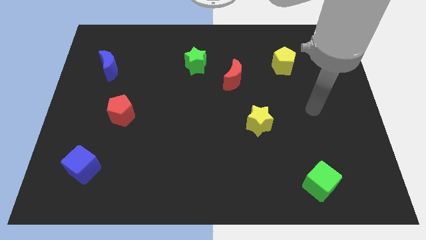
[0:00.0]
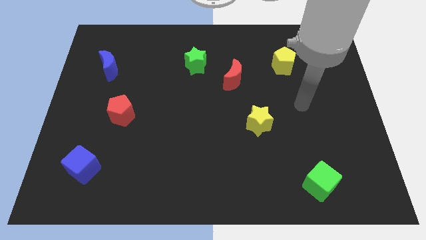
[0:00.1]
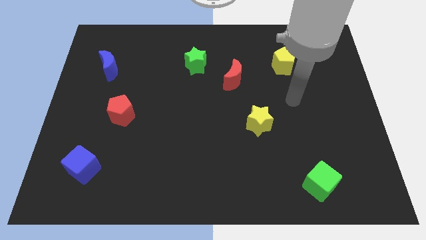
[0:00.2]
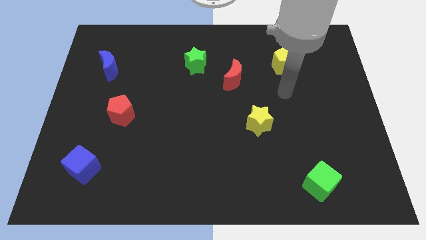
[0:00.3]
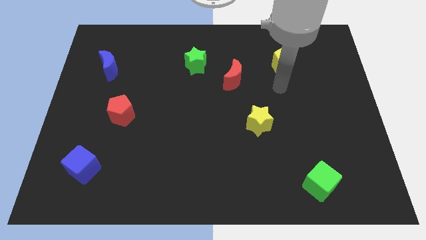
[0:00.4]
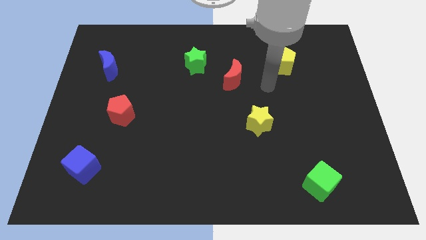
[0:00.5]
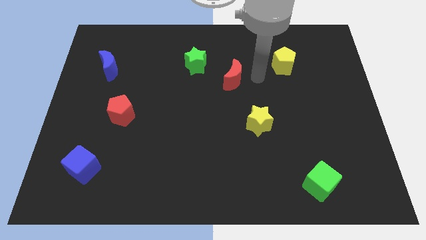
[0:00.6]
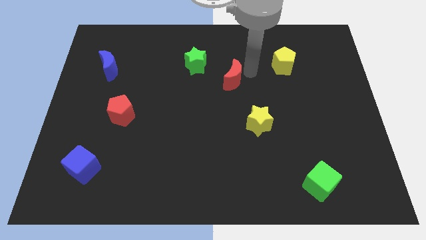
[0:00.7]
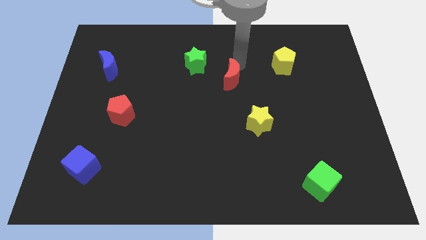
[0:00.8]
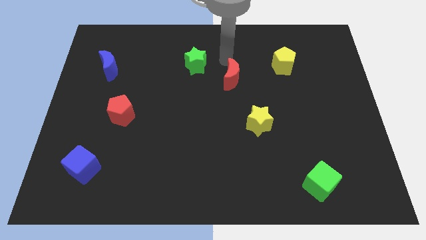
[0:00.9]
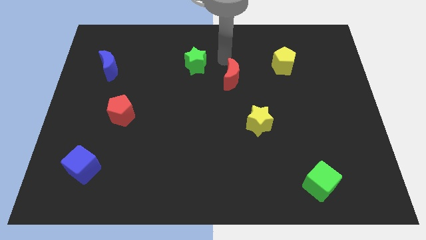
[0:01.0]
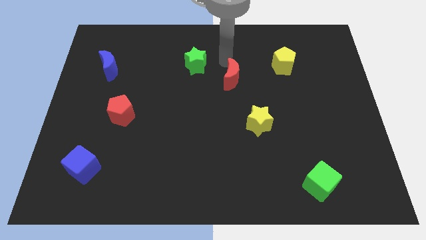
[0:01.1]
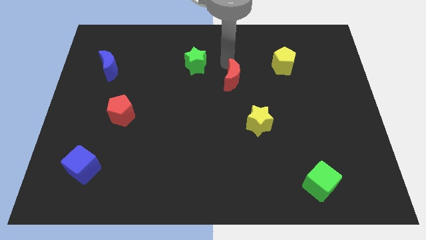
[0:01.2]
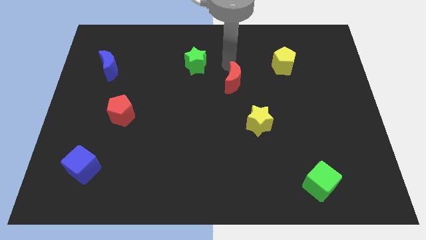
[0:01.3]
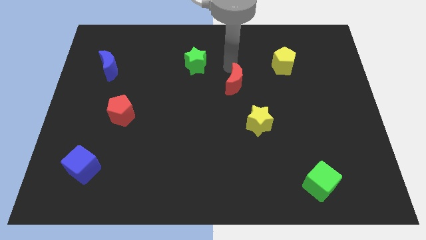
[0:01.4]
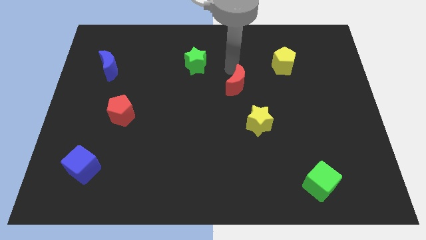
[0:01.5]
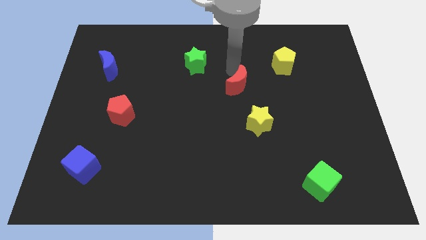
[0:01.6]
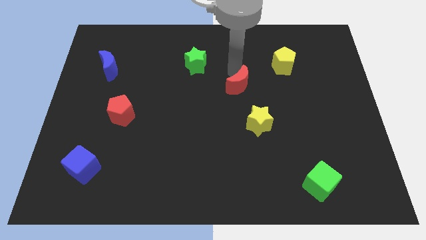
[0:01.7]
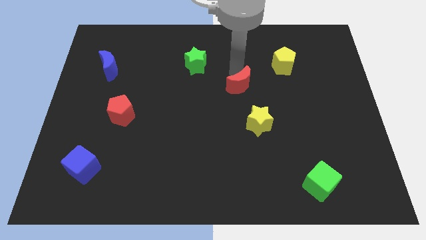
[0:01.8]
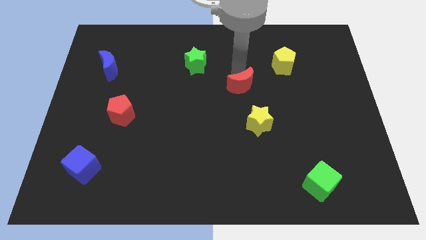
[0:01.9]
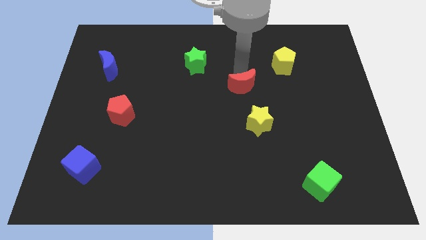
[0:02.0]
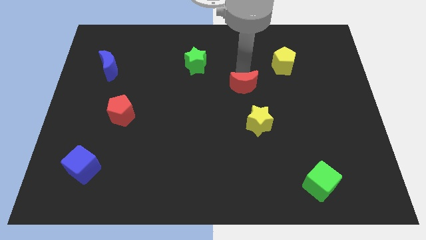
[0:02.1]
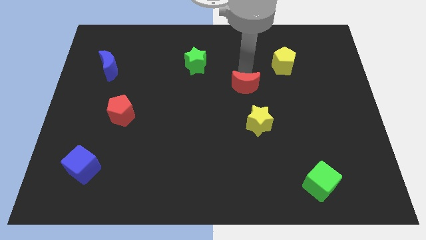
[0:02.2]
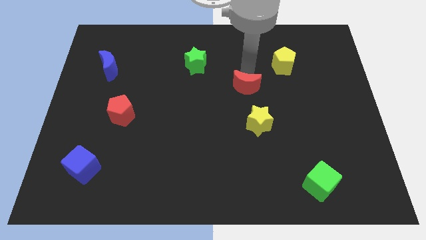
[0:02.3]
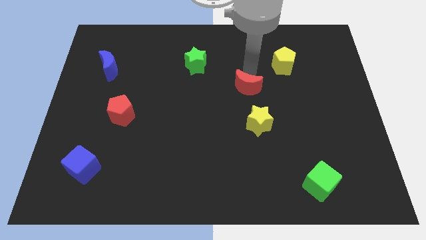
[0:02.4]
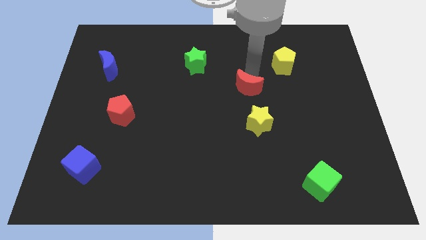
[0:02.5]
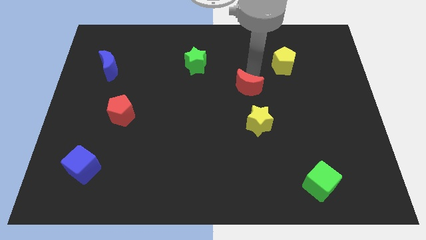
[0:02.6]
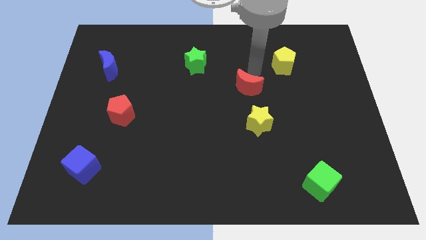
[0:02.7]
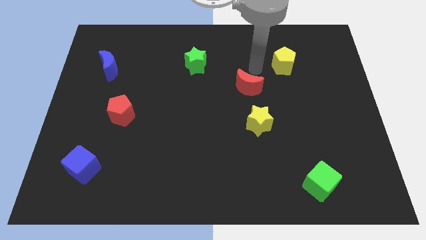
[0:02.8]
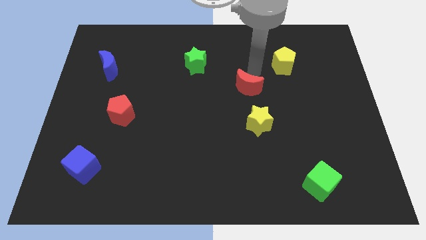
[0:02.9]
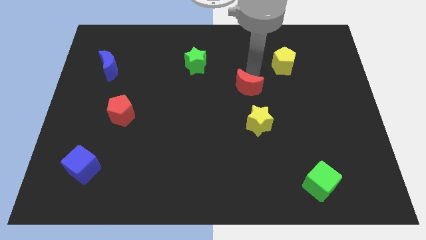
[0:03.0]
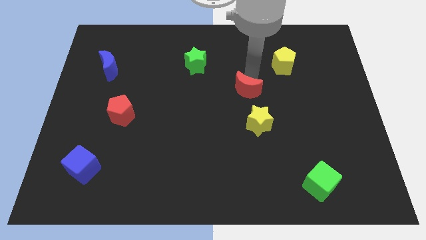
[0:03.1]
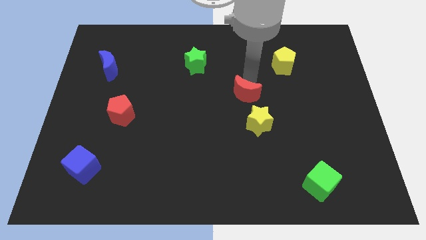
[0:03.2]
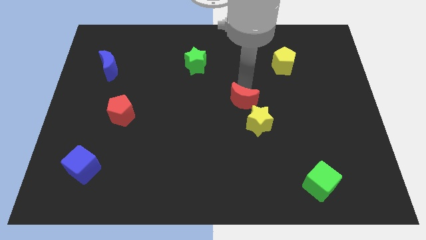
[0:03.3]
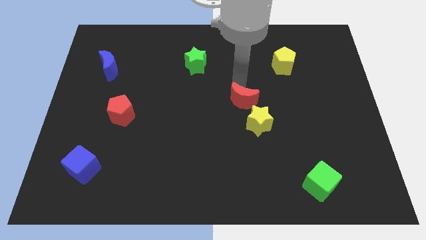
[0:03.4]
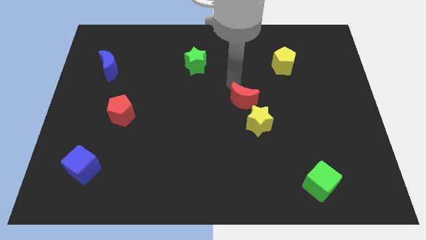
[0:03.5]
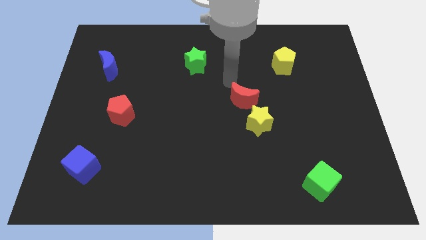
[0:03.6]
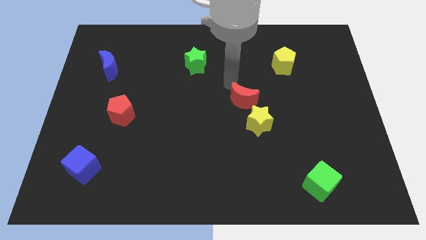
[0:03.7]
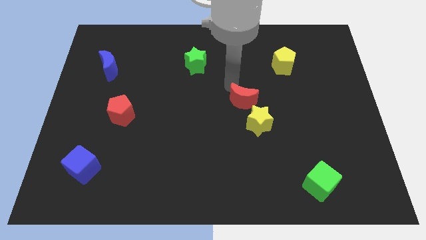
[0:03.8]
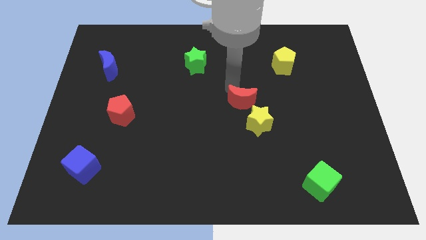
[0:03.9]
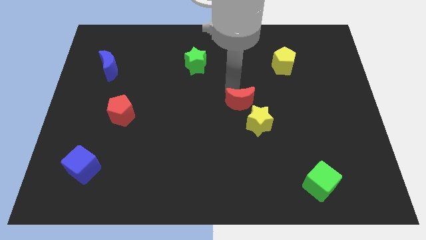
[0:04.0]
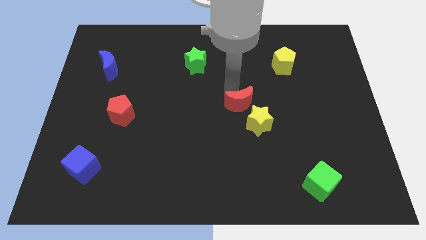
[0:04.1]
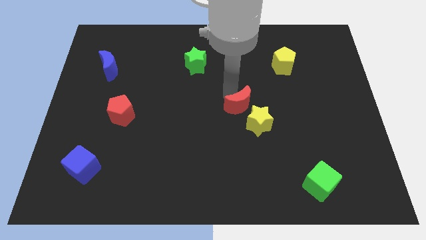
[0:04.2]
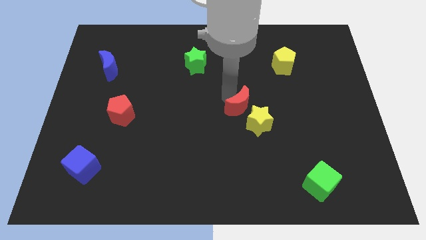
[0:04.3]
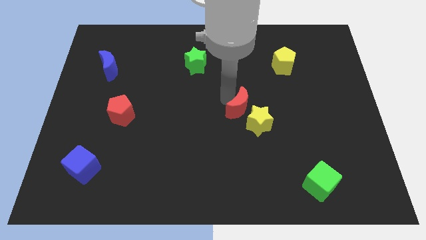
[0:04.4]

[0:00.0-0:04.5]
move the red moon to the yellow star

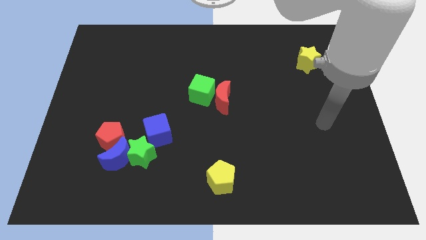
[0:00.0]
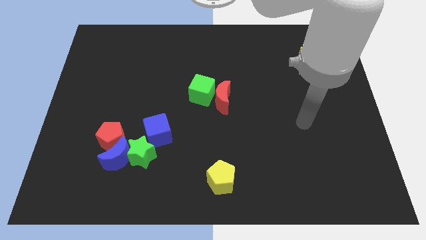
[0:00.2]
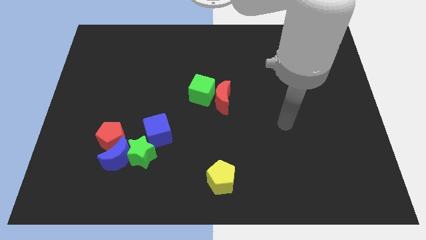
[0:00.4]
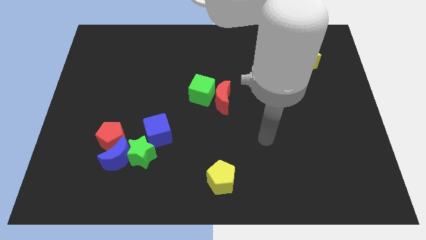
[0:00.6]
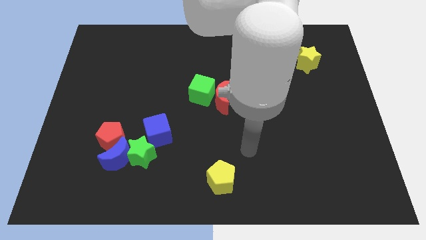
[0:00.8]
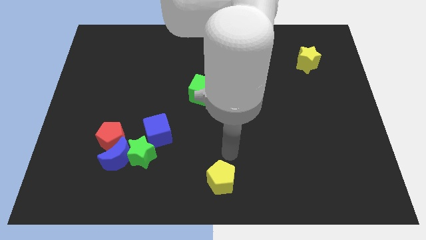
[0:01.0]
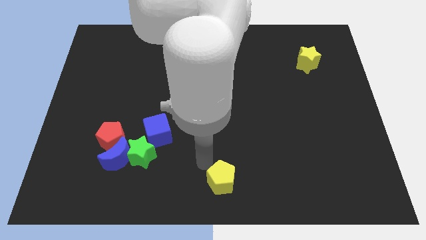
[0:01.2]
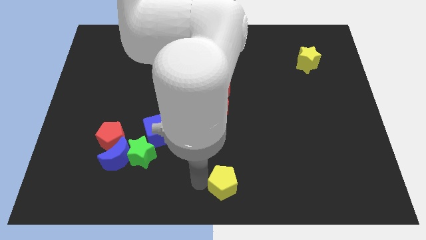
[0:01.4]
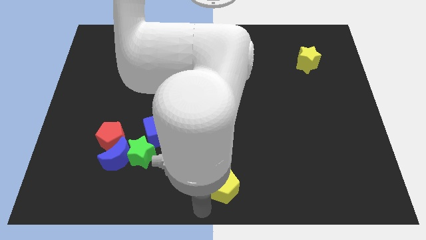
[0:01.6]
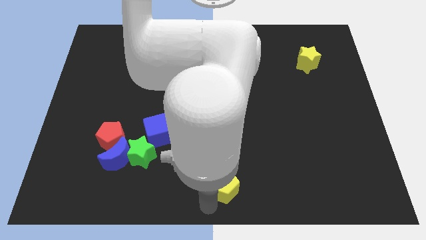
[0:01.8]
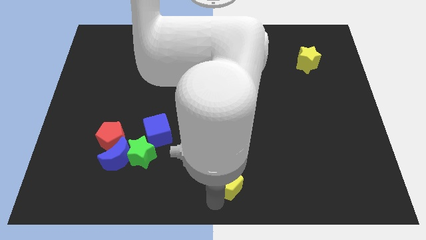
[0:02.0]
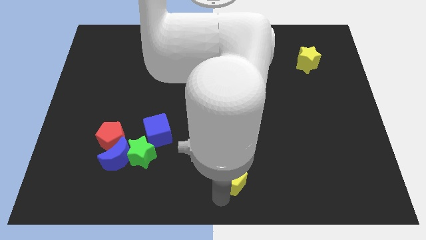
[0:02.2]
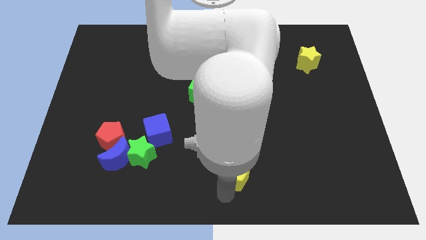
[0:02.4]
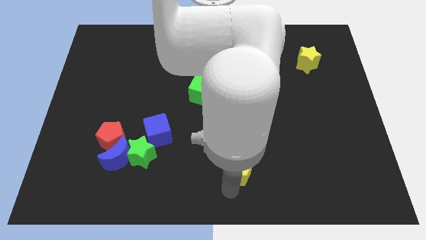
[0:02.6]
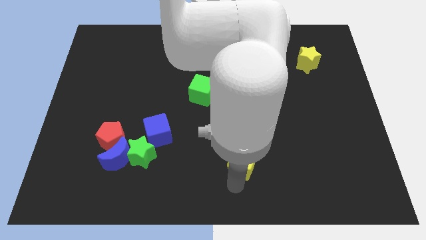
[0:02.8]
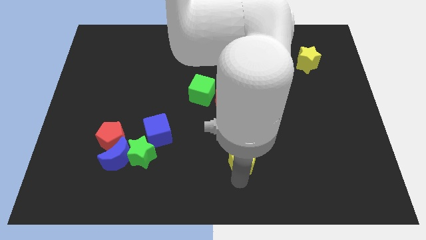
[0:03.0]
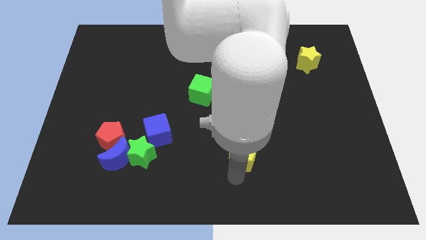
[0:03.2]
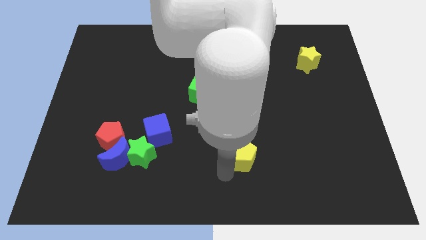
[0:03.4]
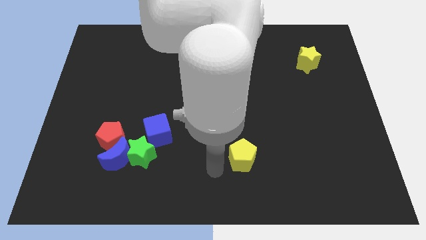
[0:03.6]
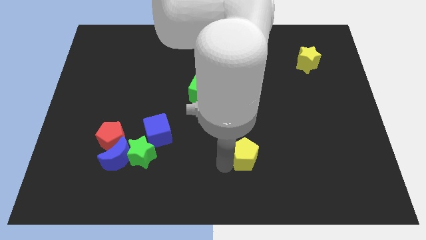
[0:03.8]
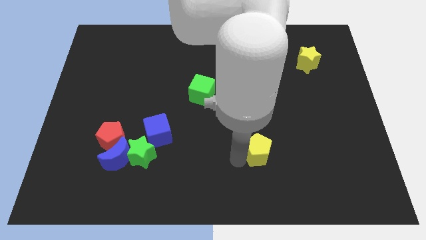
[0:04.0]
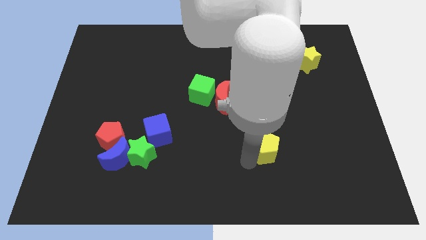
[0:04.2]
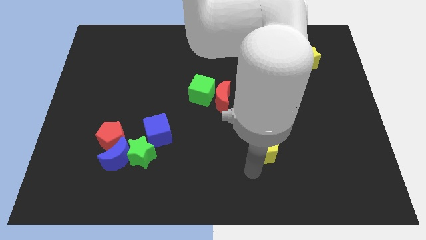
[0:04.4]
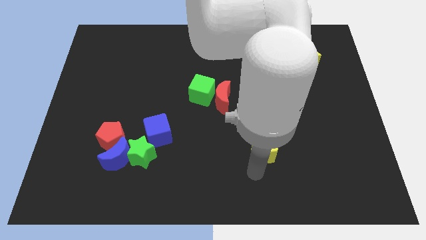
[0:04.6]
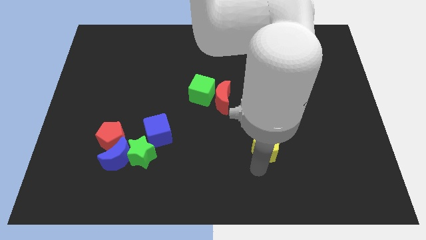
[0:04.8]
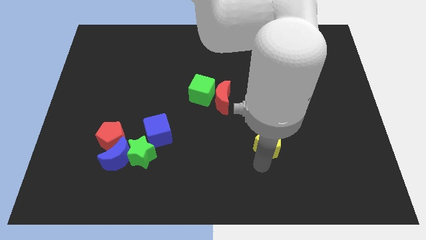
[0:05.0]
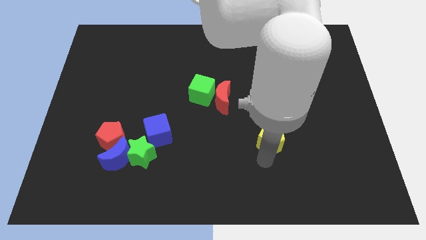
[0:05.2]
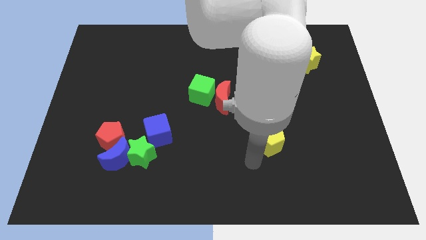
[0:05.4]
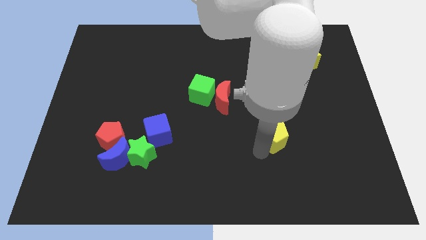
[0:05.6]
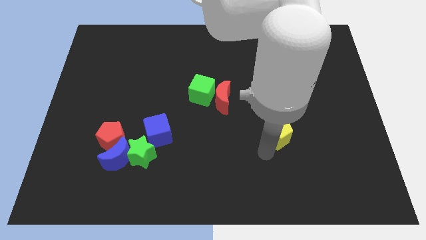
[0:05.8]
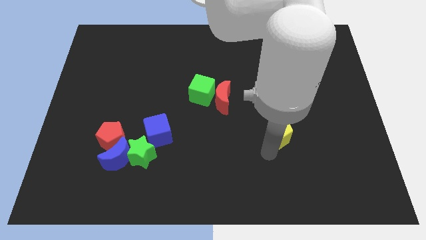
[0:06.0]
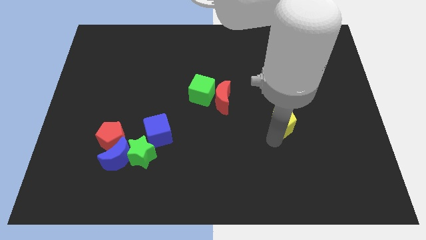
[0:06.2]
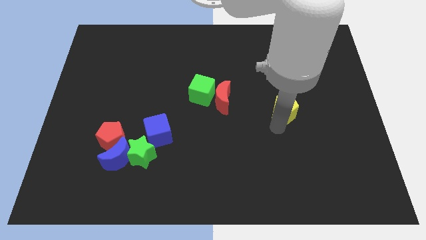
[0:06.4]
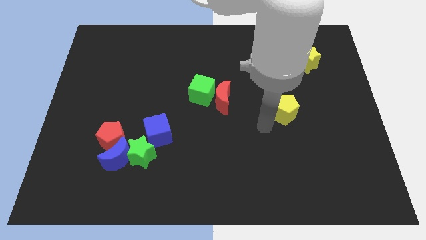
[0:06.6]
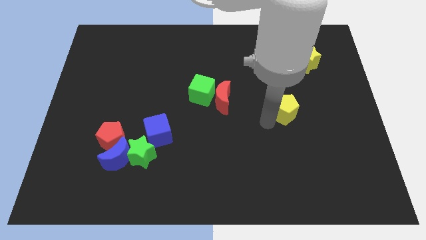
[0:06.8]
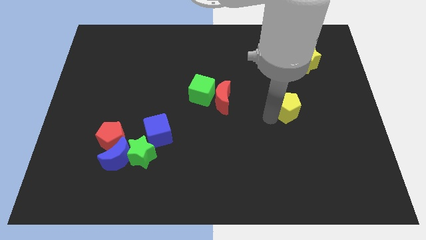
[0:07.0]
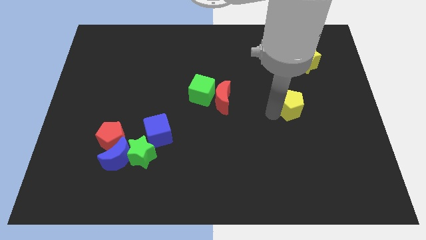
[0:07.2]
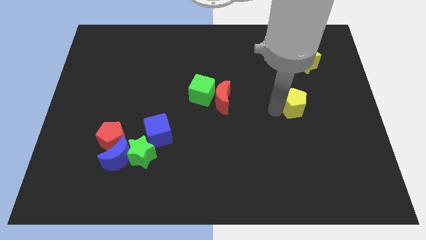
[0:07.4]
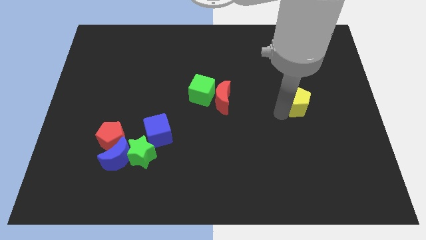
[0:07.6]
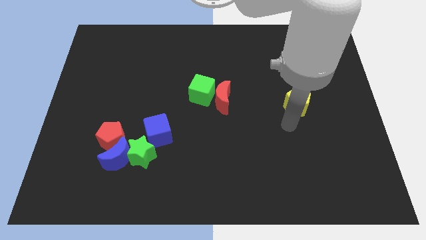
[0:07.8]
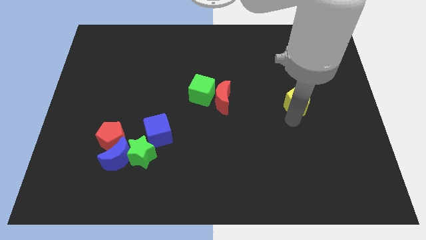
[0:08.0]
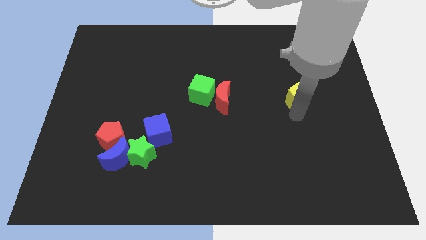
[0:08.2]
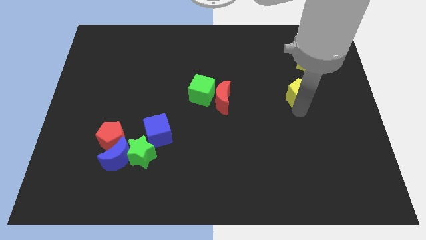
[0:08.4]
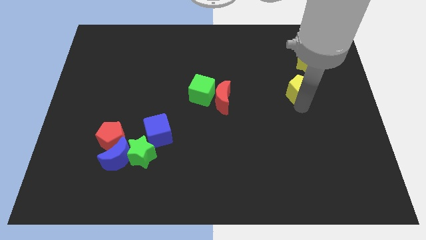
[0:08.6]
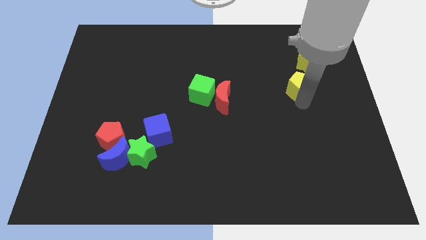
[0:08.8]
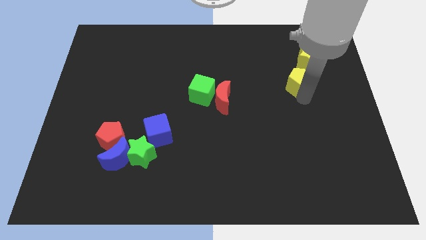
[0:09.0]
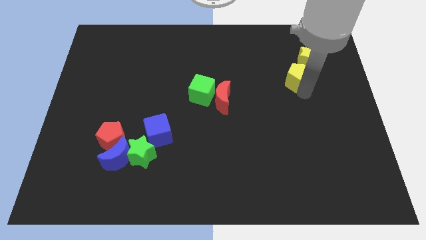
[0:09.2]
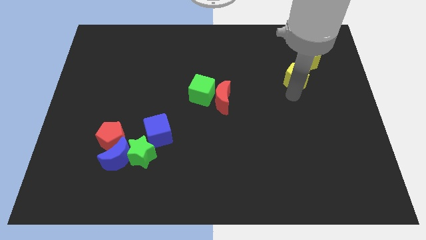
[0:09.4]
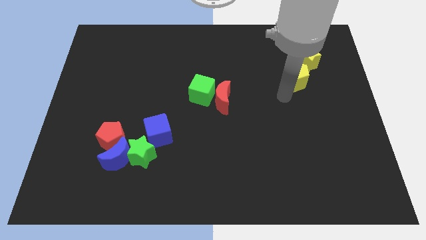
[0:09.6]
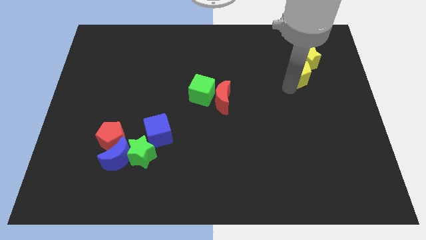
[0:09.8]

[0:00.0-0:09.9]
put the yellow pentagon to the yellow star
